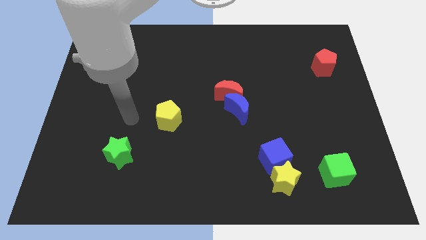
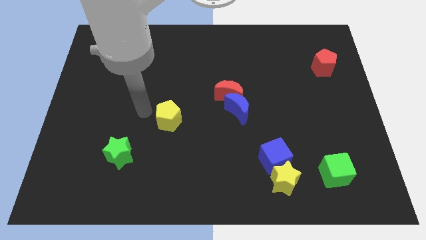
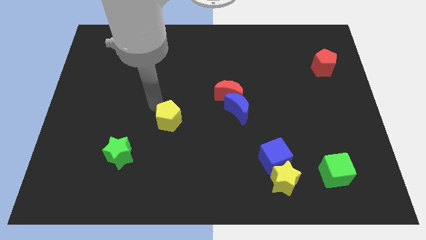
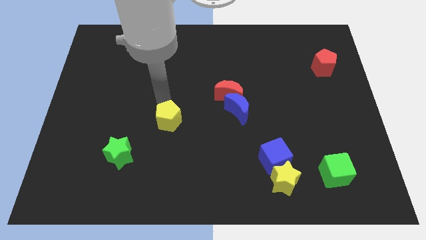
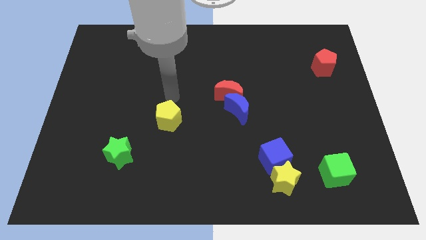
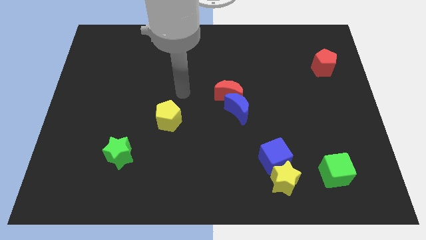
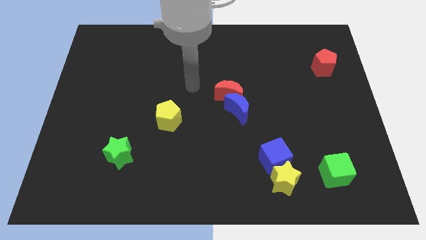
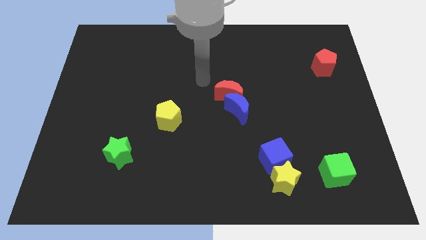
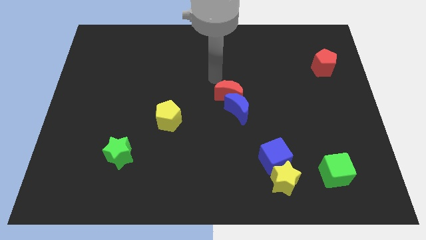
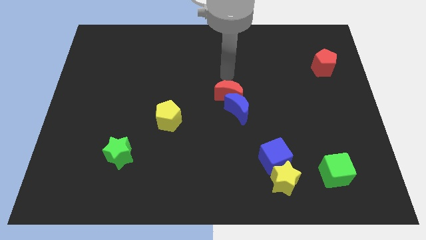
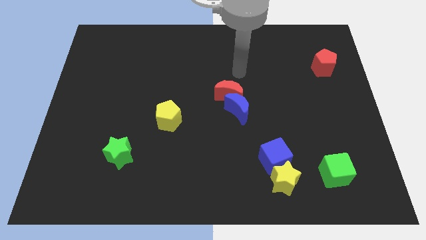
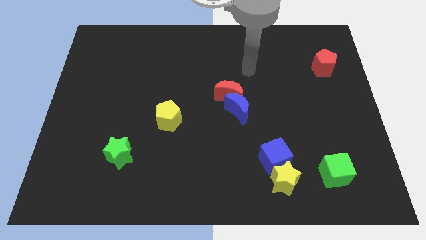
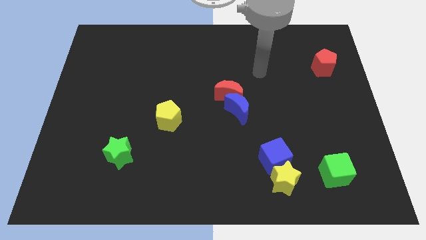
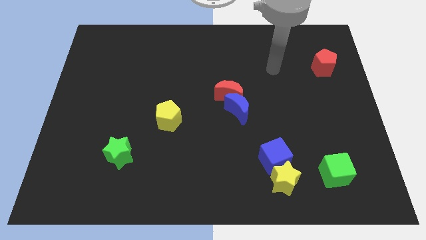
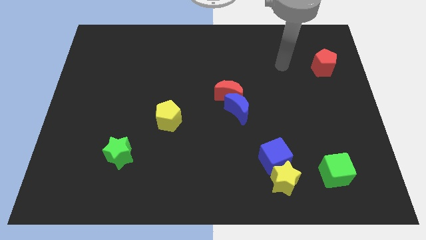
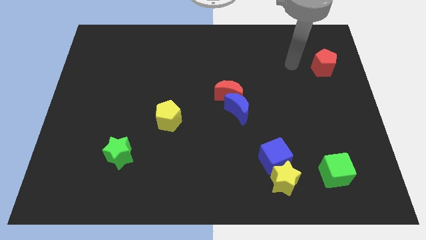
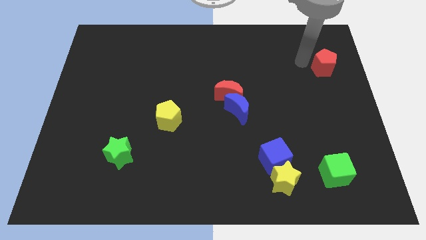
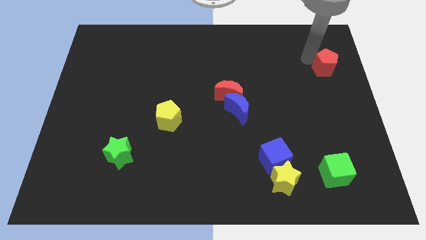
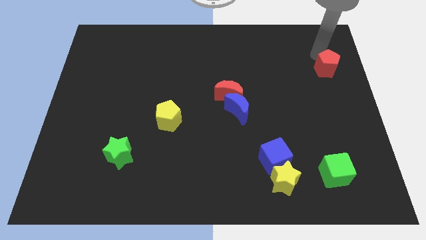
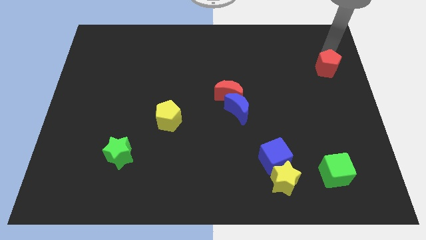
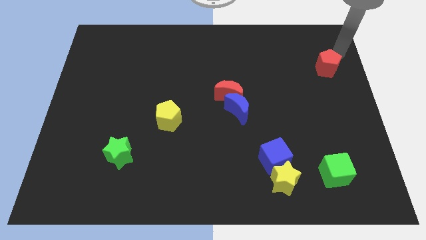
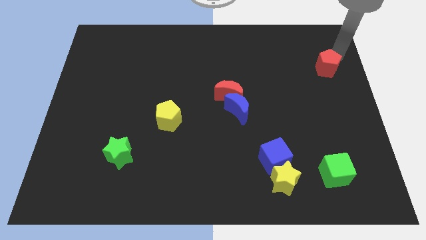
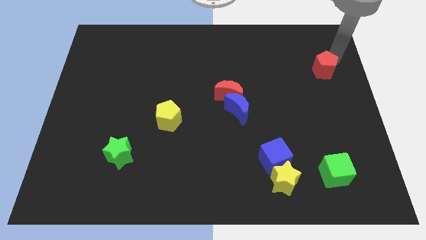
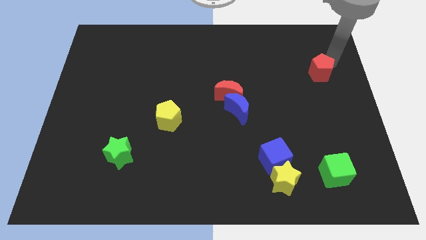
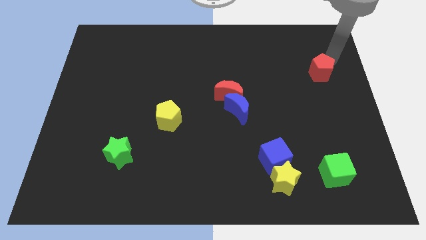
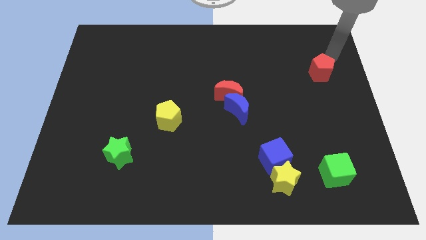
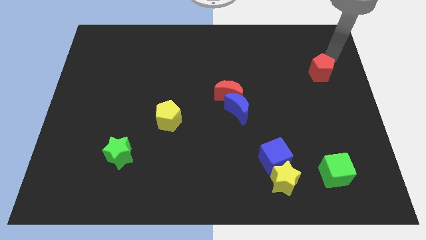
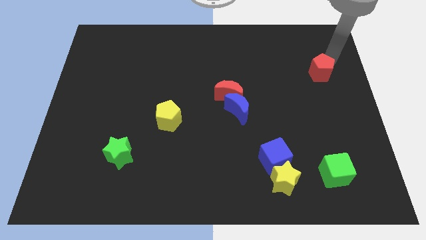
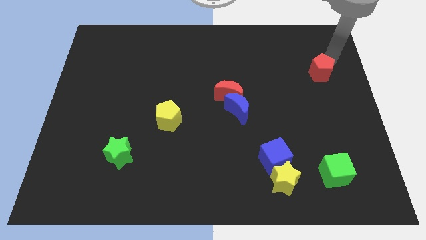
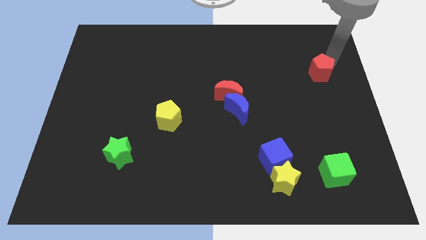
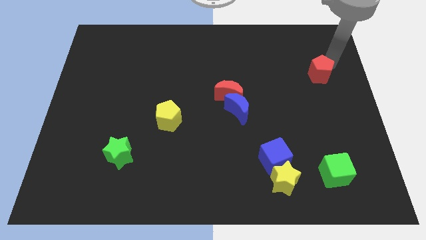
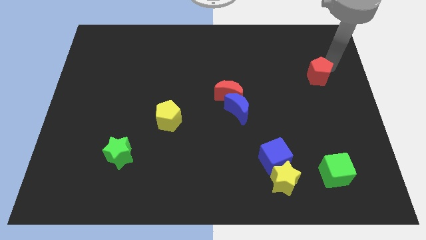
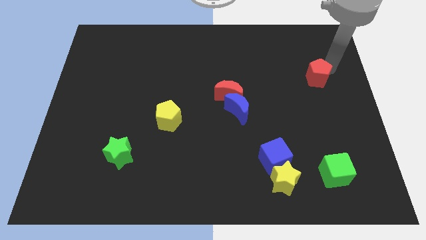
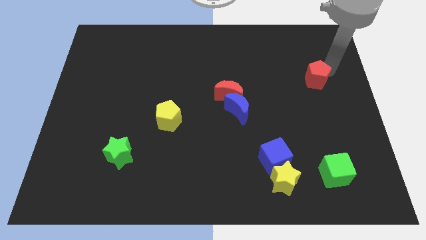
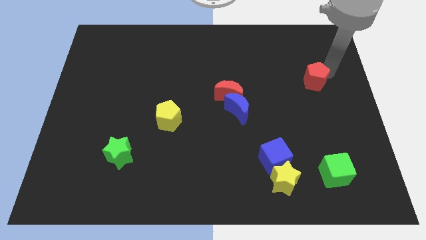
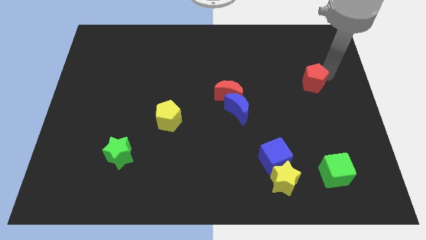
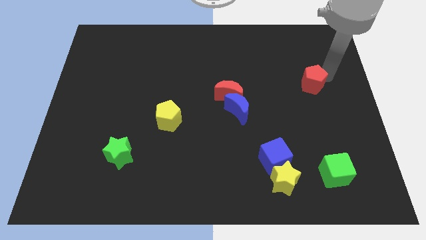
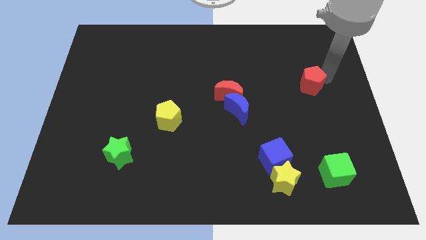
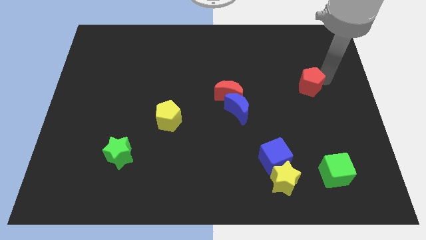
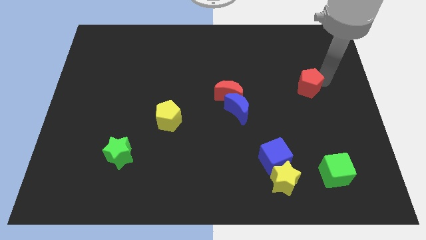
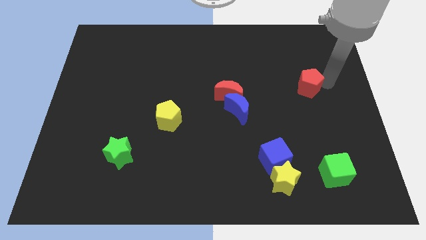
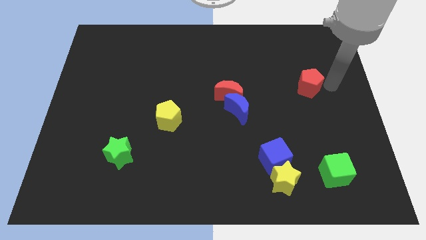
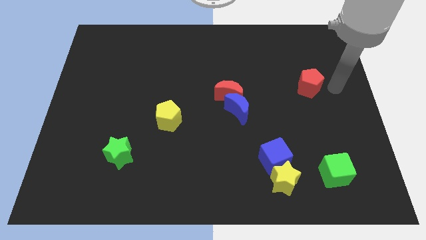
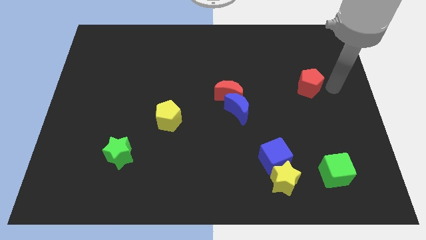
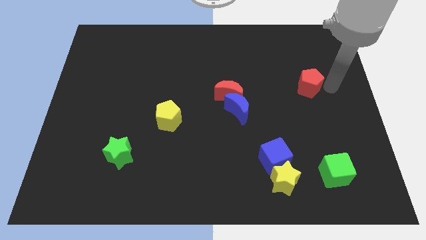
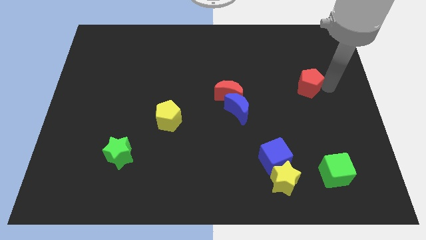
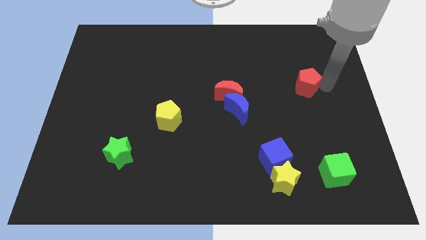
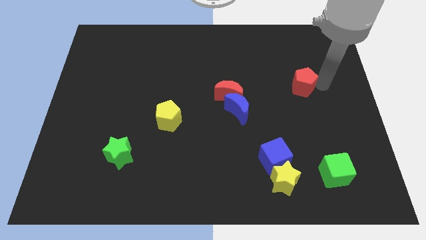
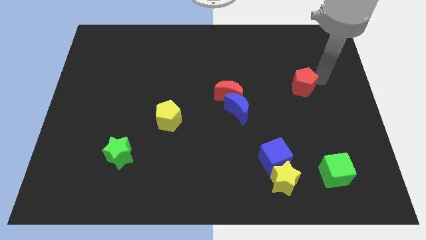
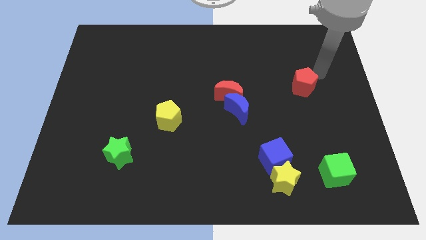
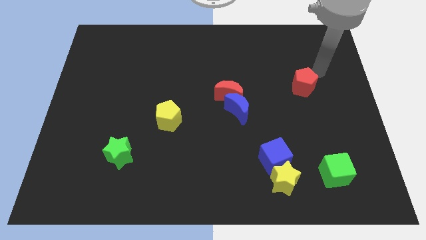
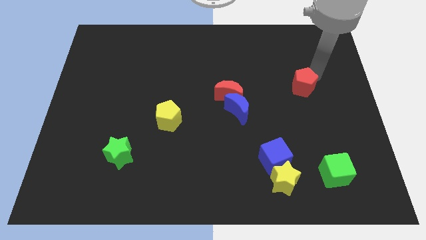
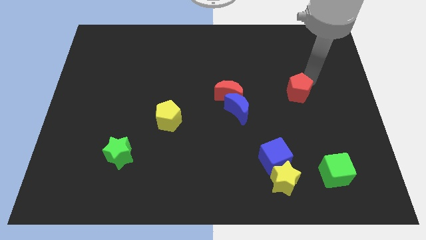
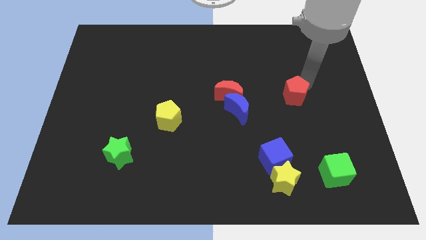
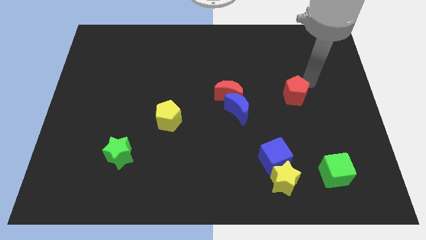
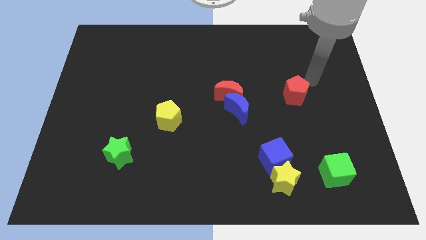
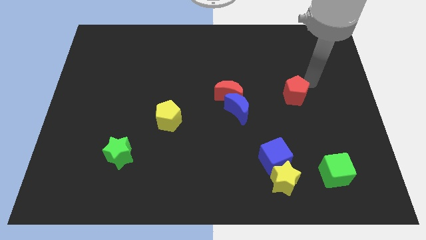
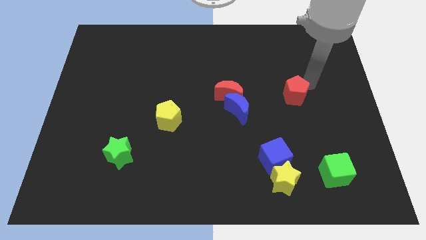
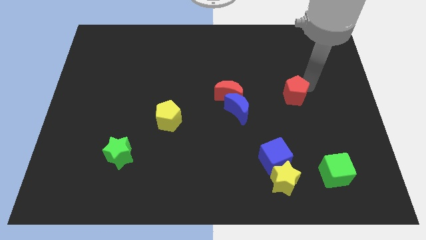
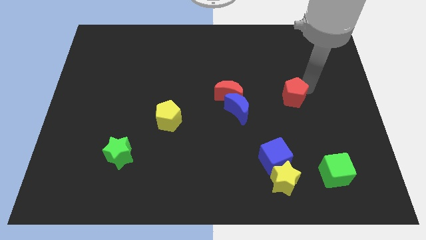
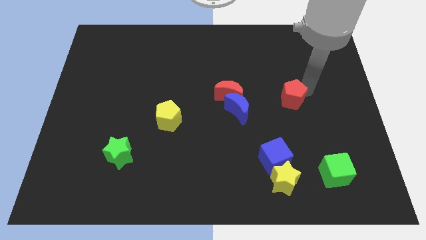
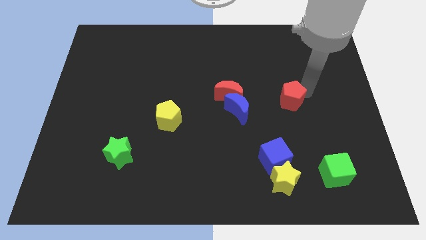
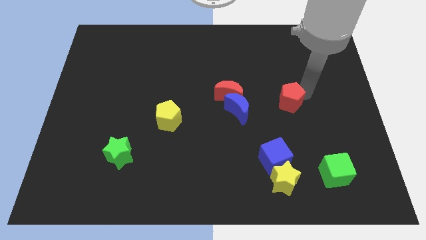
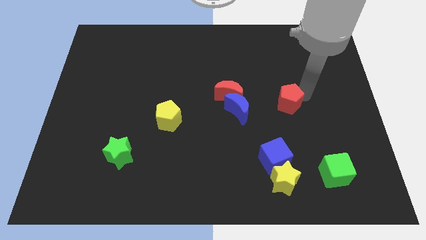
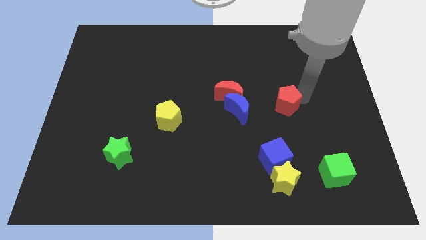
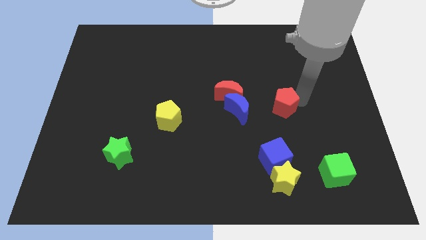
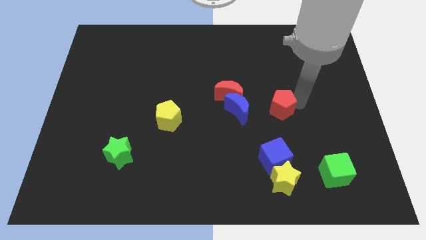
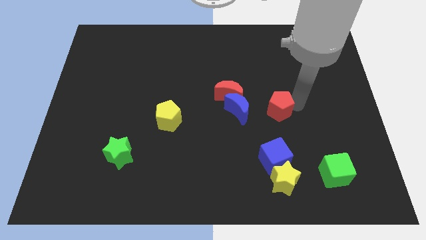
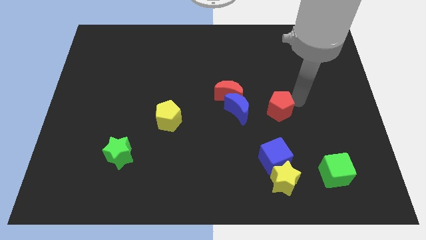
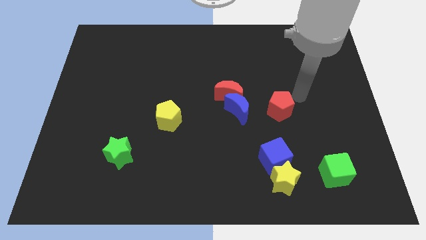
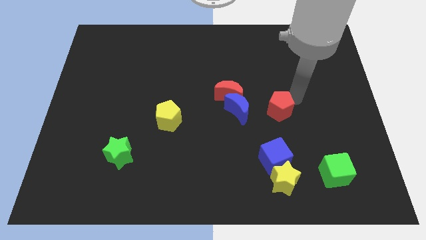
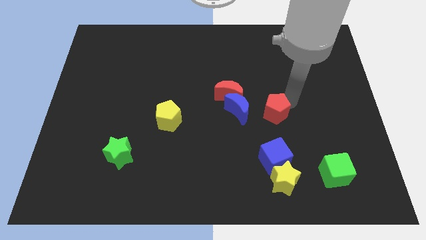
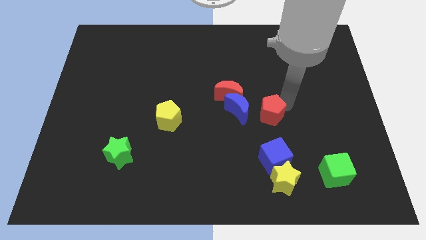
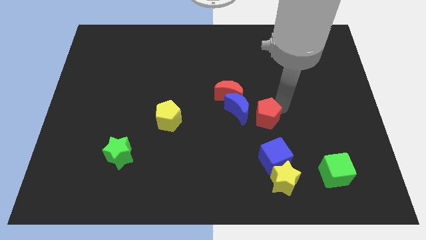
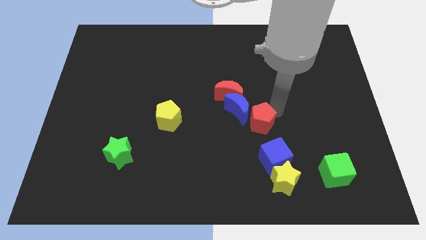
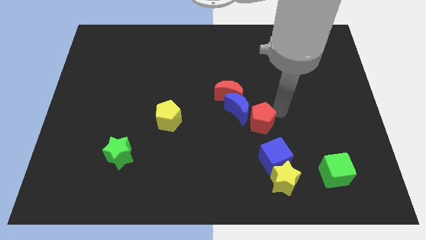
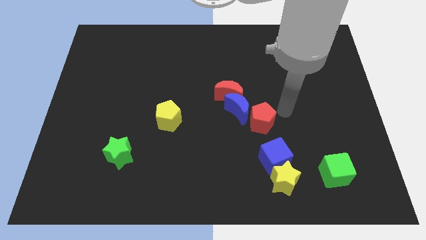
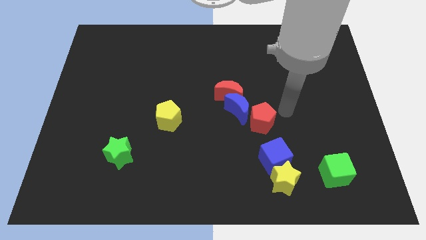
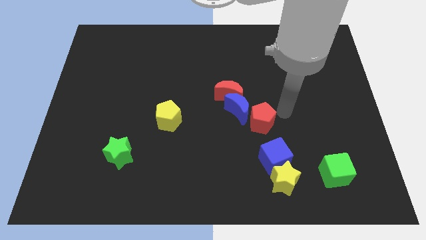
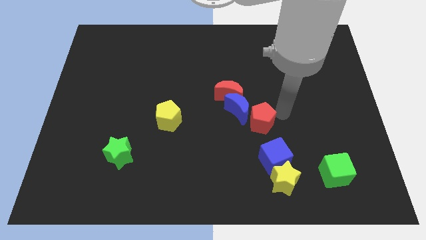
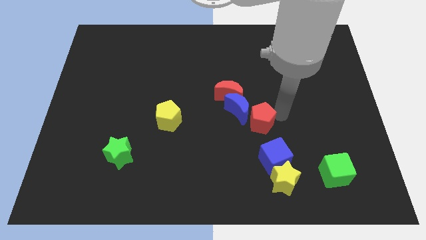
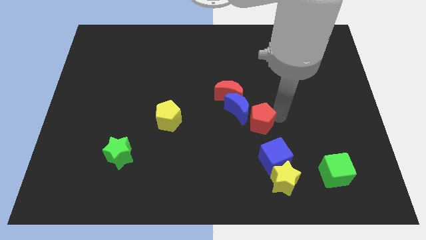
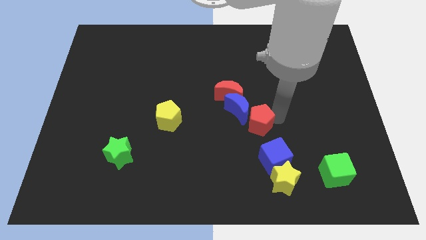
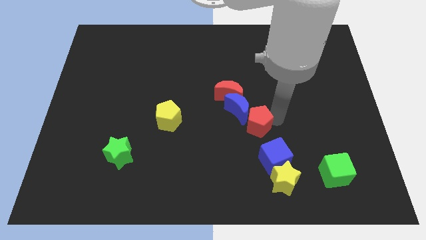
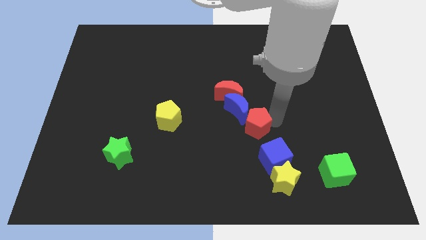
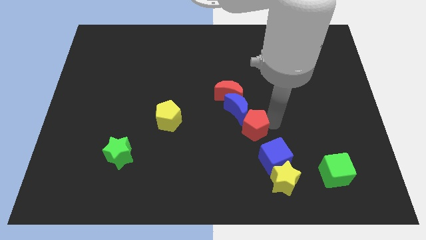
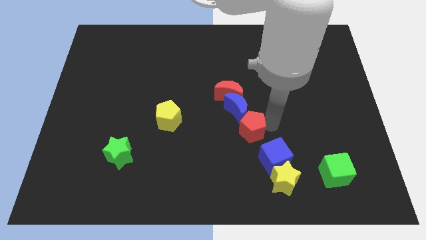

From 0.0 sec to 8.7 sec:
put the red pentagon to the bottom side of the red moon

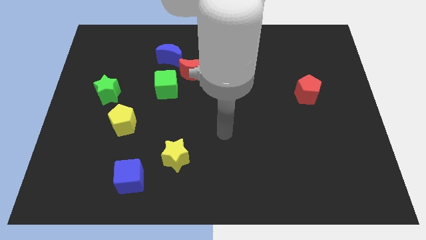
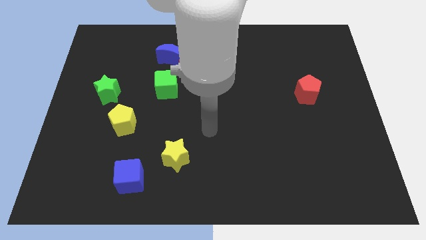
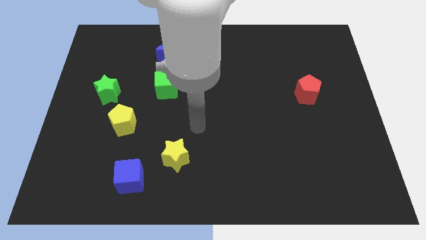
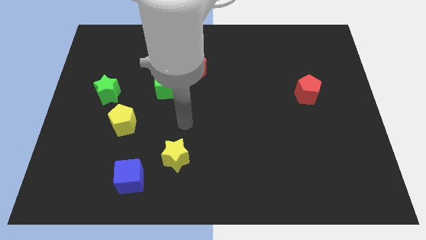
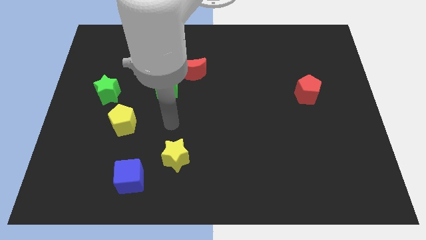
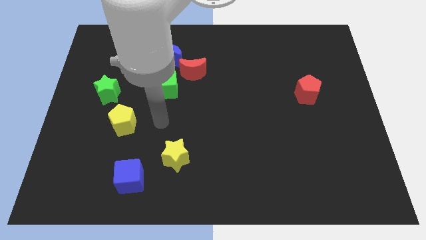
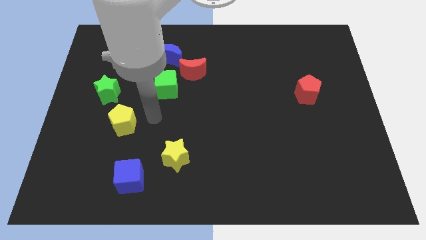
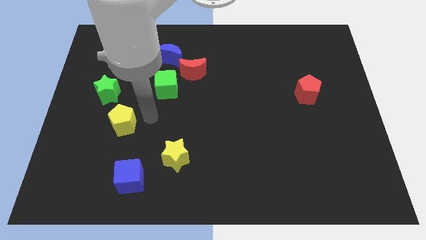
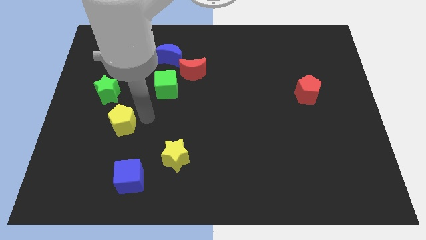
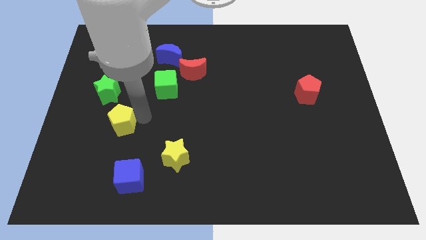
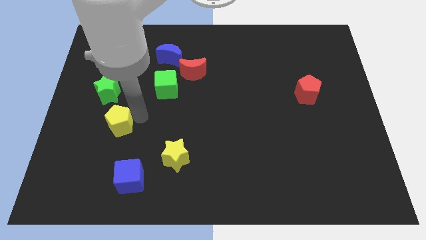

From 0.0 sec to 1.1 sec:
slide the yellow pentagon to the bottom side of the green star
